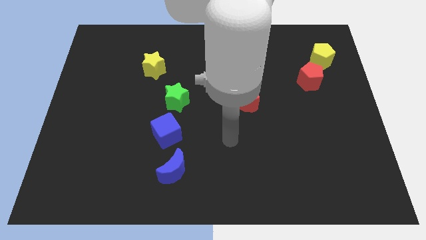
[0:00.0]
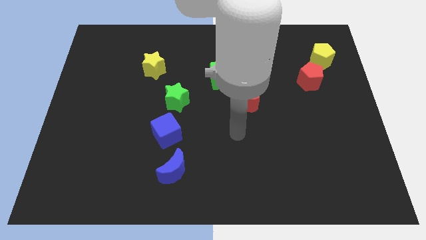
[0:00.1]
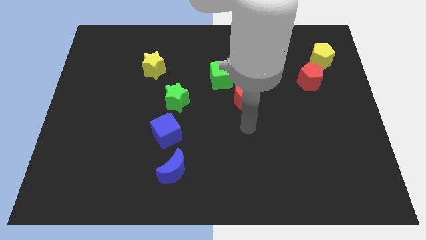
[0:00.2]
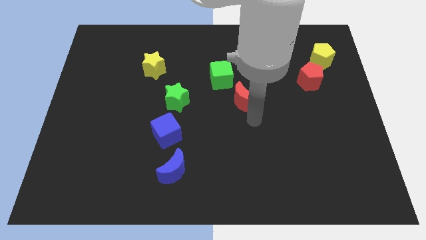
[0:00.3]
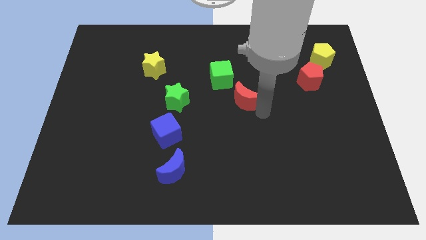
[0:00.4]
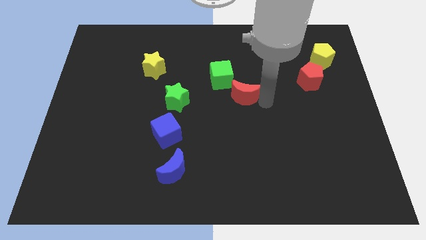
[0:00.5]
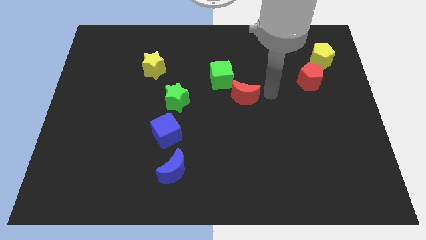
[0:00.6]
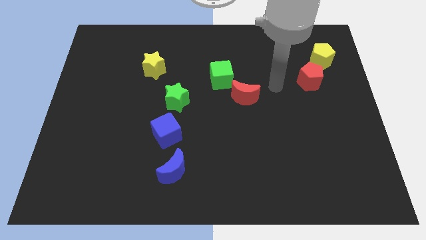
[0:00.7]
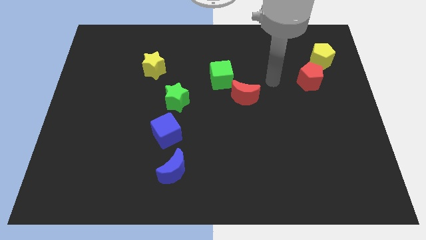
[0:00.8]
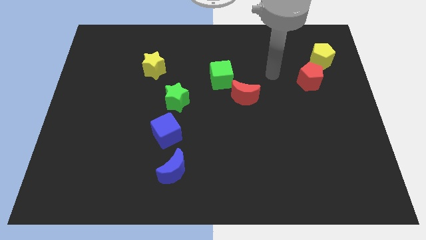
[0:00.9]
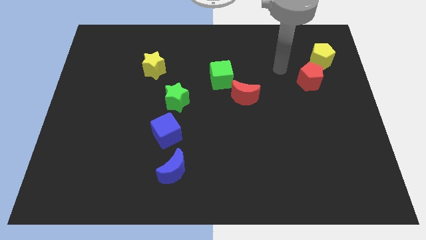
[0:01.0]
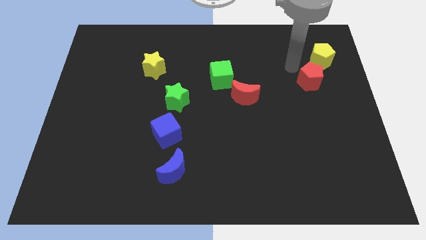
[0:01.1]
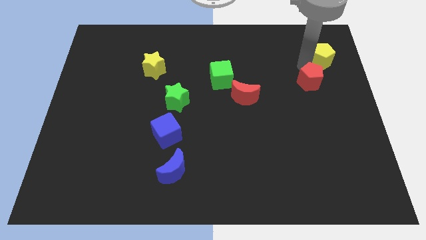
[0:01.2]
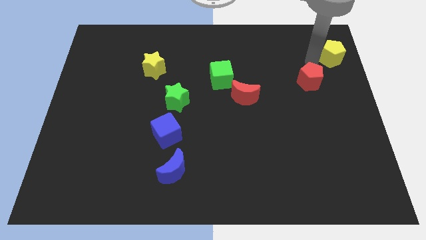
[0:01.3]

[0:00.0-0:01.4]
pull the red pentagon apart from the yellow pentagon

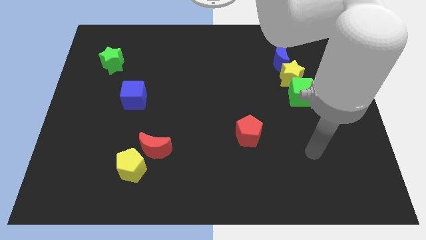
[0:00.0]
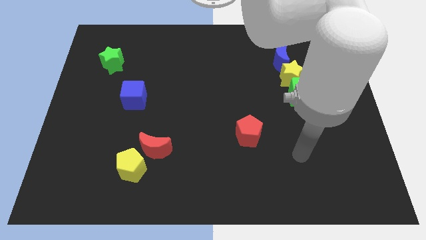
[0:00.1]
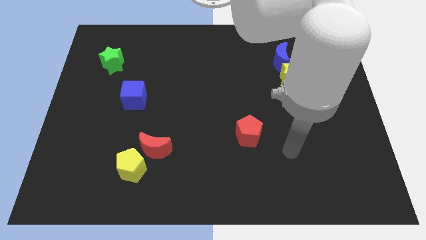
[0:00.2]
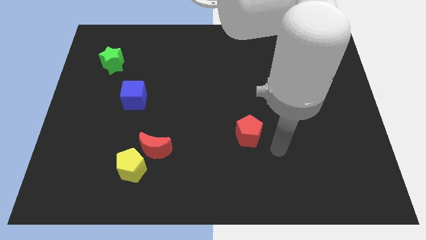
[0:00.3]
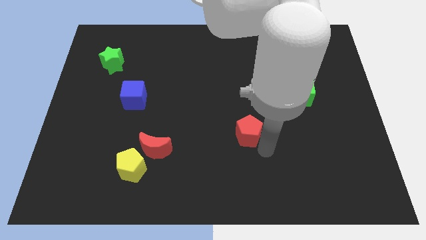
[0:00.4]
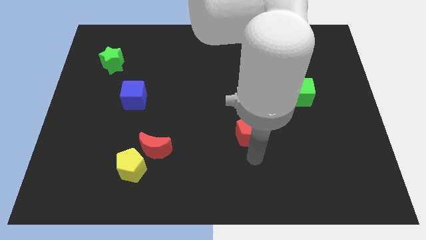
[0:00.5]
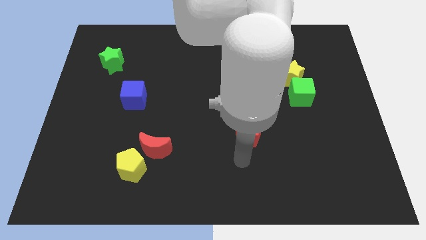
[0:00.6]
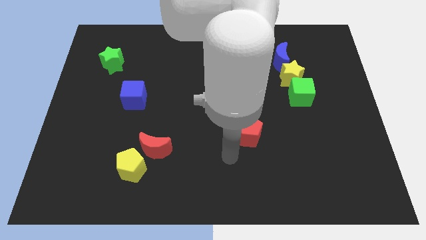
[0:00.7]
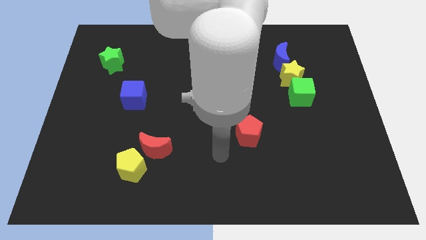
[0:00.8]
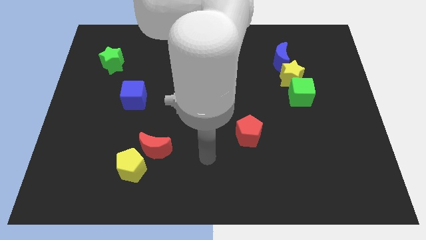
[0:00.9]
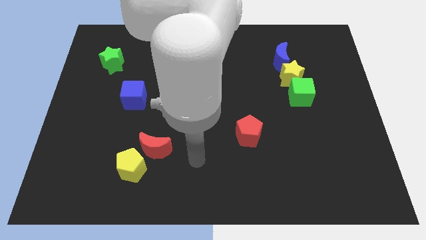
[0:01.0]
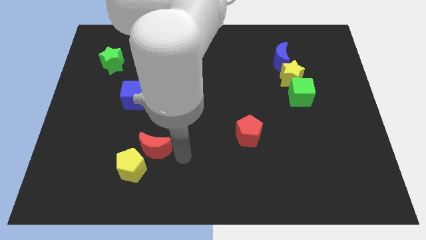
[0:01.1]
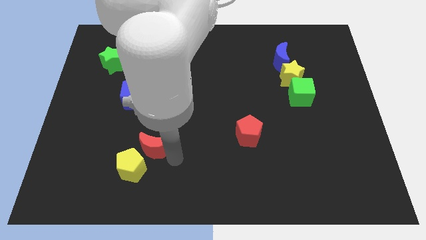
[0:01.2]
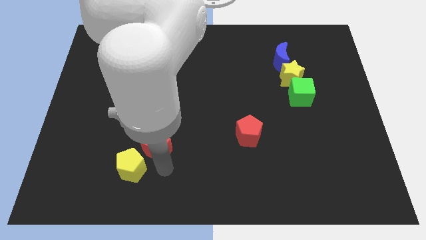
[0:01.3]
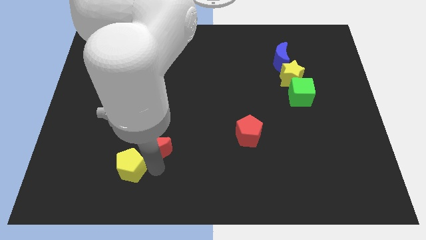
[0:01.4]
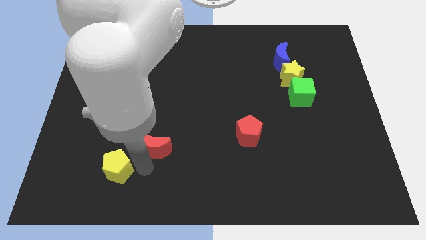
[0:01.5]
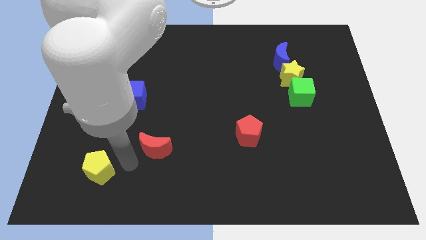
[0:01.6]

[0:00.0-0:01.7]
separate the red moon from the yellow pentagon

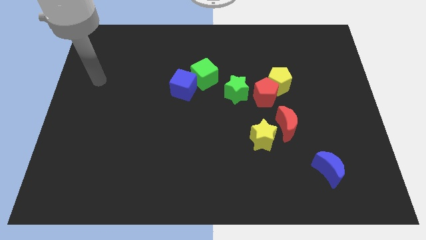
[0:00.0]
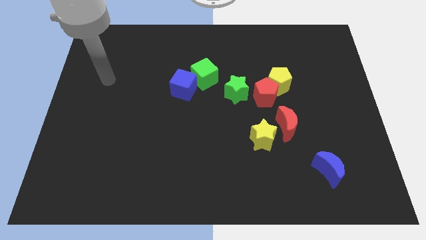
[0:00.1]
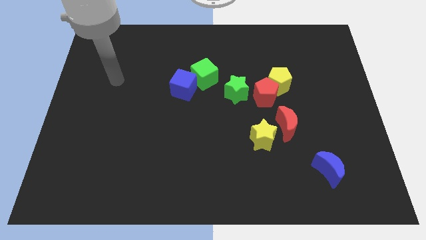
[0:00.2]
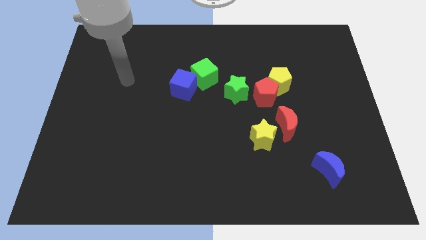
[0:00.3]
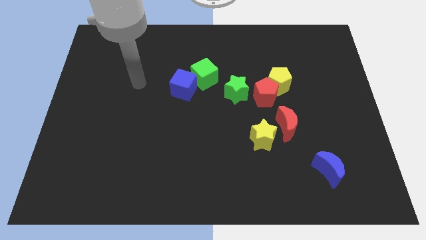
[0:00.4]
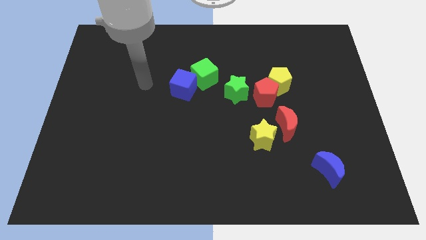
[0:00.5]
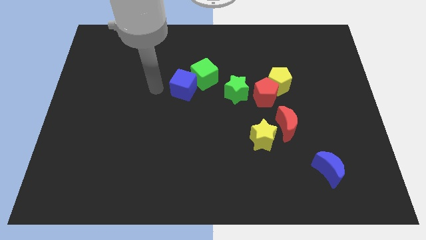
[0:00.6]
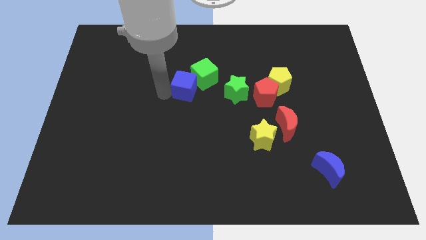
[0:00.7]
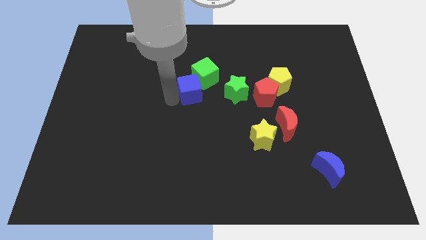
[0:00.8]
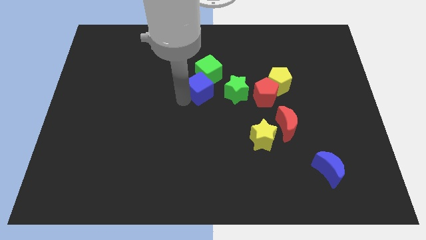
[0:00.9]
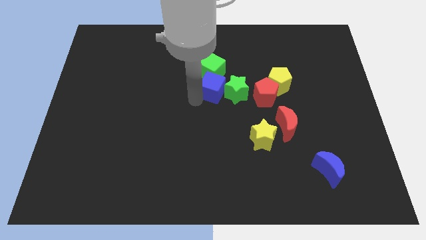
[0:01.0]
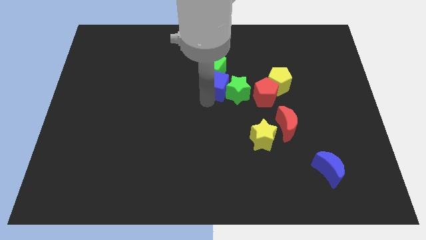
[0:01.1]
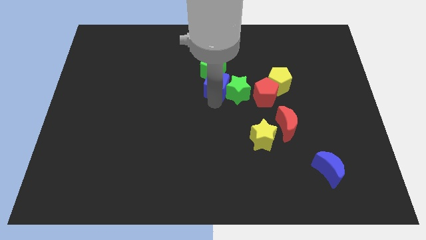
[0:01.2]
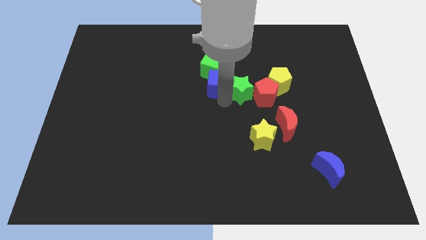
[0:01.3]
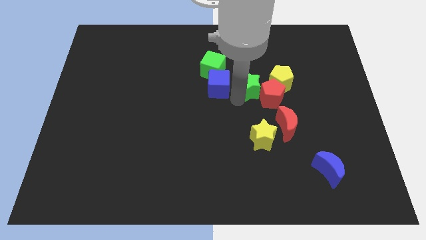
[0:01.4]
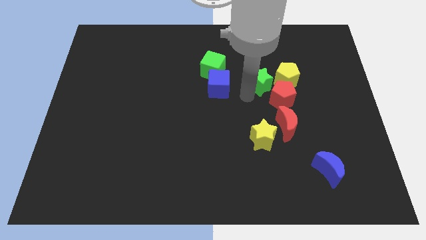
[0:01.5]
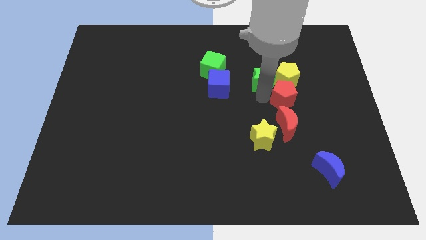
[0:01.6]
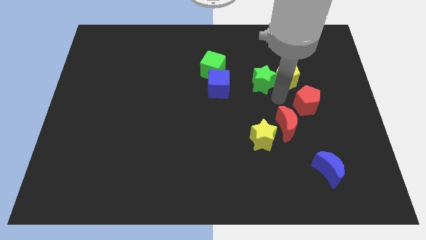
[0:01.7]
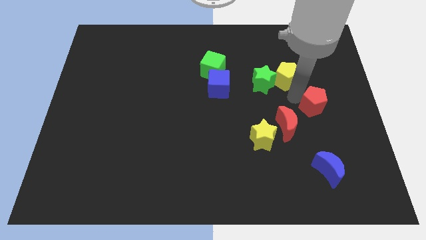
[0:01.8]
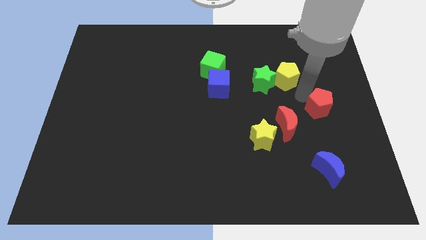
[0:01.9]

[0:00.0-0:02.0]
separate the yellow pentagon from the red pentagon

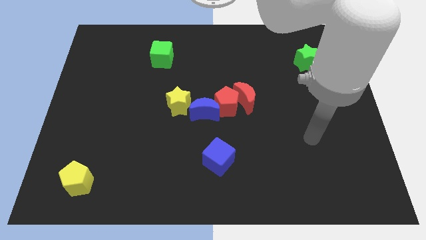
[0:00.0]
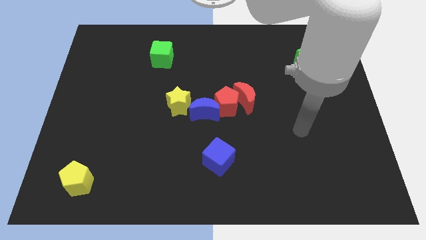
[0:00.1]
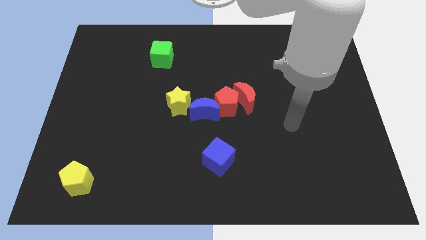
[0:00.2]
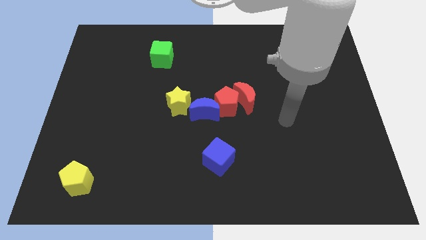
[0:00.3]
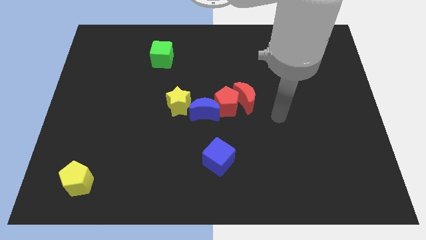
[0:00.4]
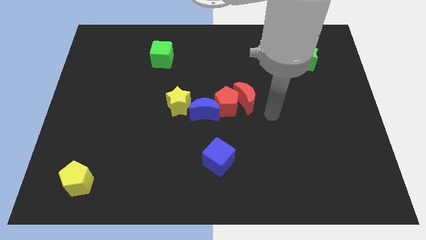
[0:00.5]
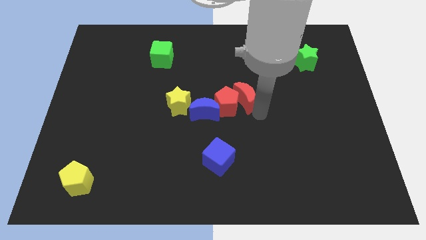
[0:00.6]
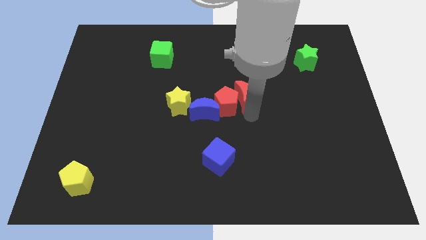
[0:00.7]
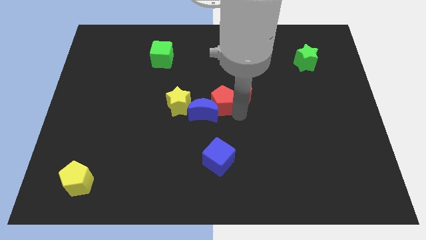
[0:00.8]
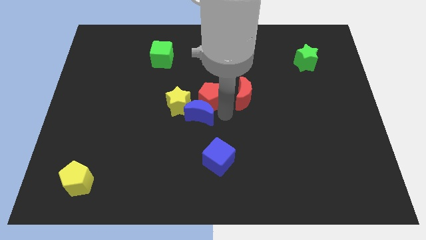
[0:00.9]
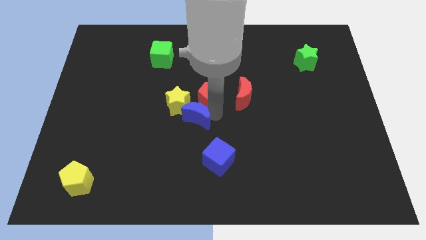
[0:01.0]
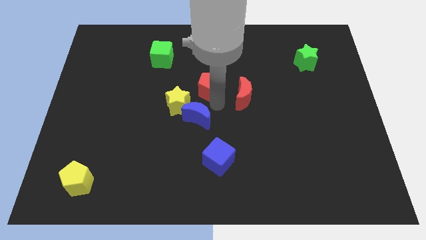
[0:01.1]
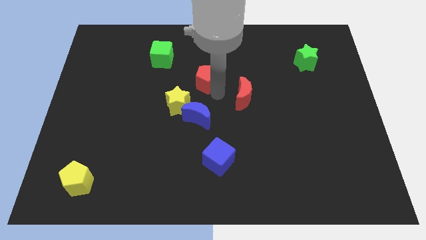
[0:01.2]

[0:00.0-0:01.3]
move the red moon away from the red pentagon

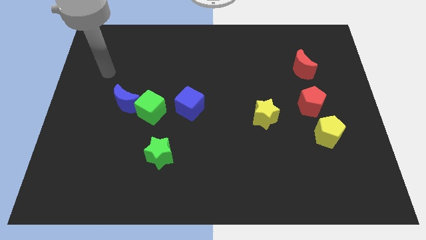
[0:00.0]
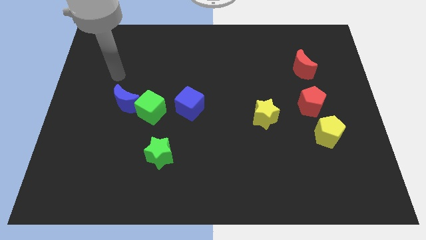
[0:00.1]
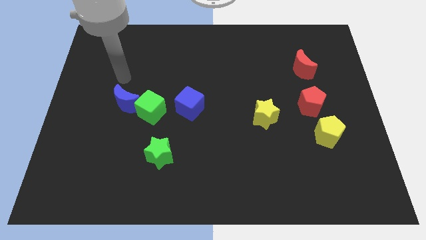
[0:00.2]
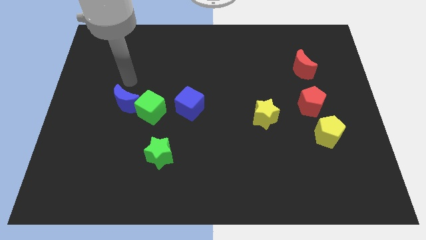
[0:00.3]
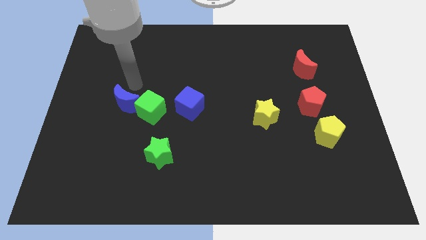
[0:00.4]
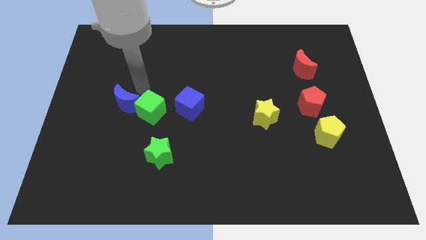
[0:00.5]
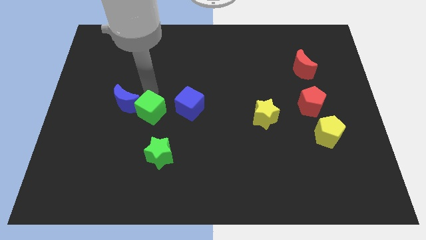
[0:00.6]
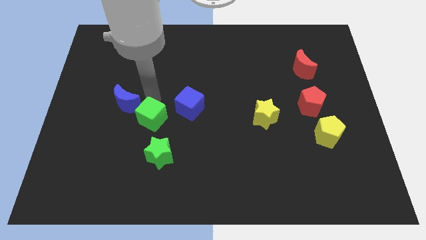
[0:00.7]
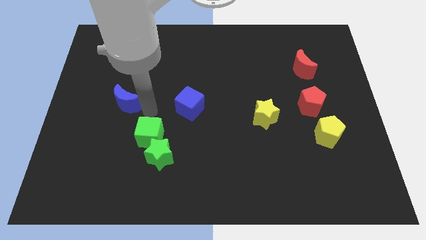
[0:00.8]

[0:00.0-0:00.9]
separate the blue moon from the green cube

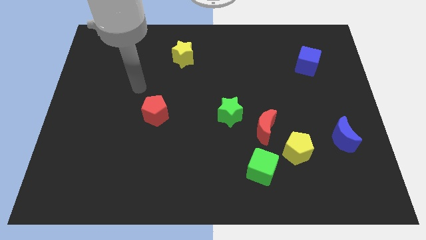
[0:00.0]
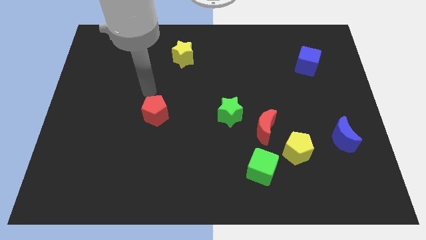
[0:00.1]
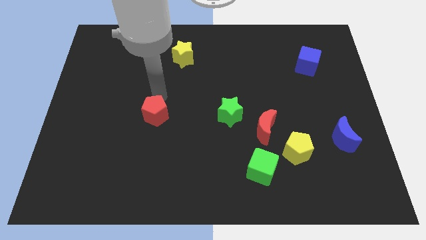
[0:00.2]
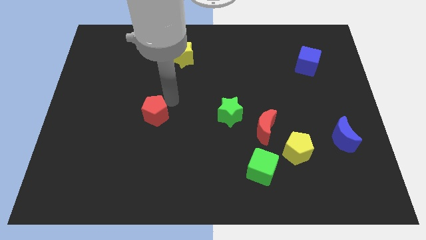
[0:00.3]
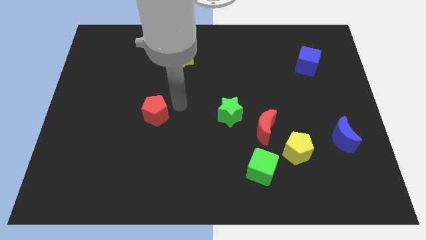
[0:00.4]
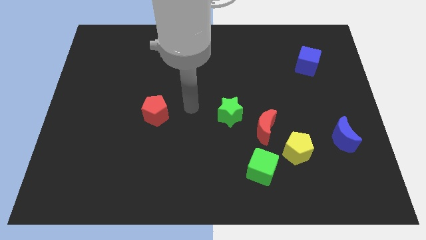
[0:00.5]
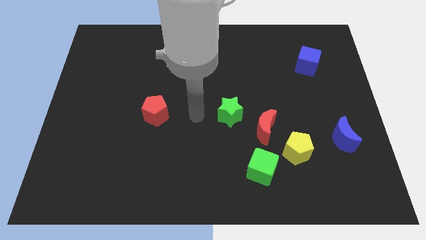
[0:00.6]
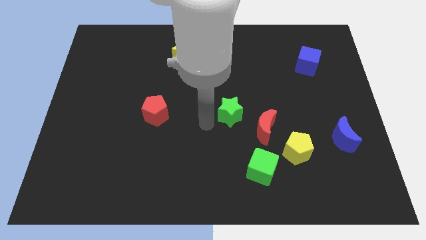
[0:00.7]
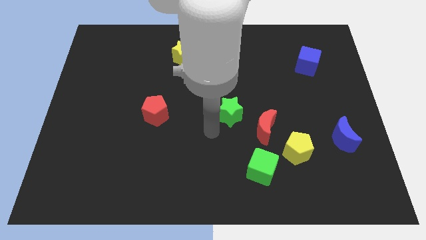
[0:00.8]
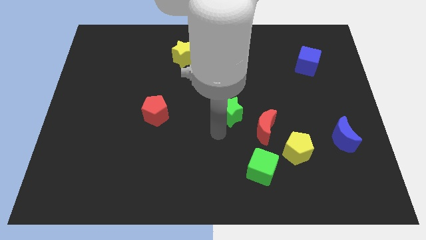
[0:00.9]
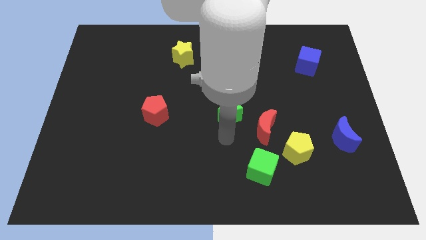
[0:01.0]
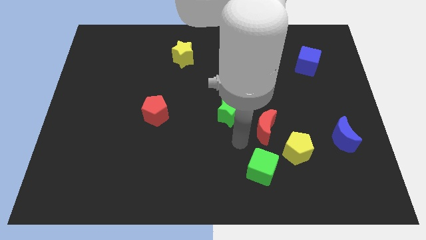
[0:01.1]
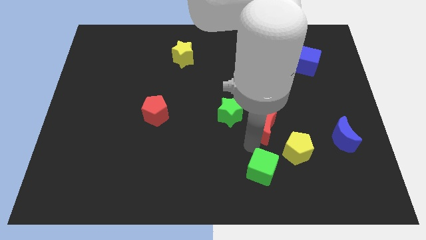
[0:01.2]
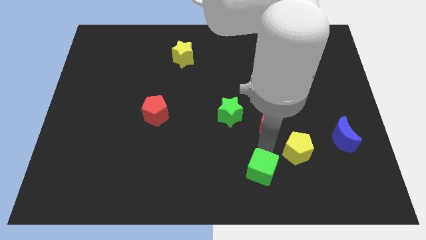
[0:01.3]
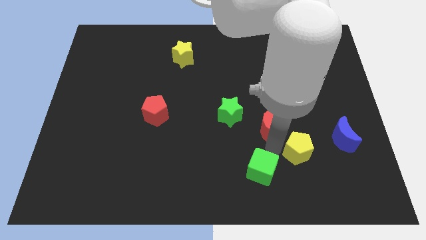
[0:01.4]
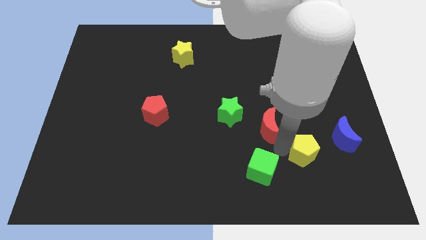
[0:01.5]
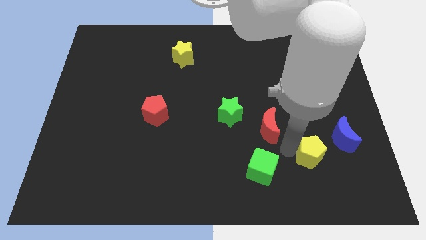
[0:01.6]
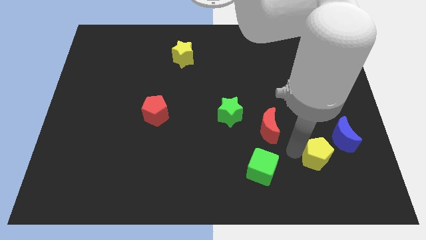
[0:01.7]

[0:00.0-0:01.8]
move the yellow pentagon away from the red moon and green cube

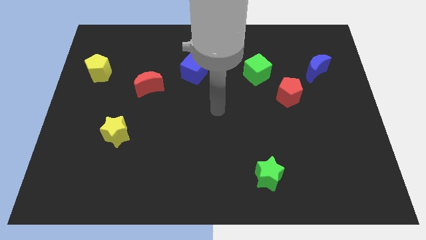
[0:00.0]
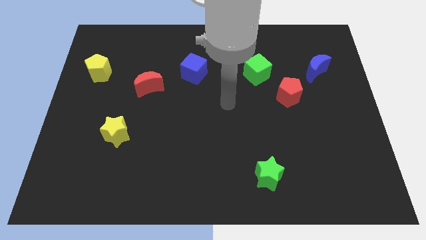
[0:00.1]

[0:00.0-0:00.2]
separate the red pentagon from the green cube
